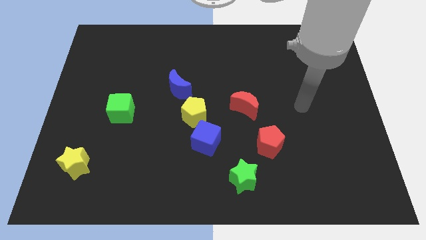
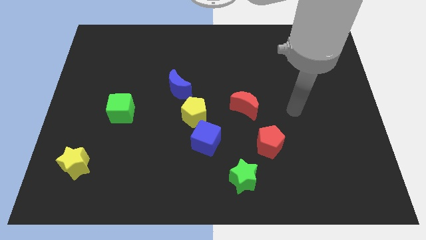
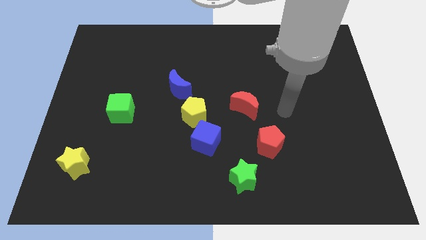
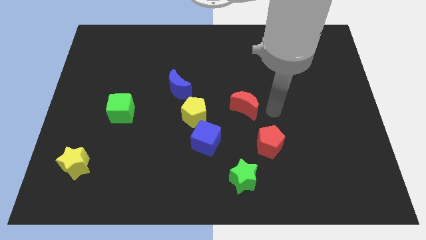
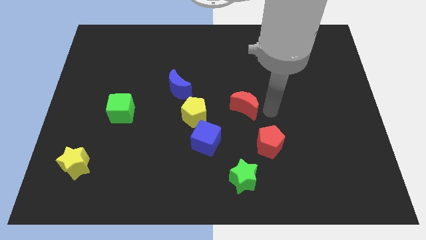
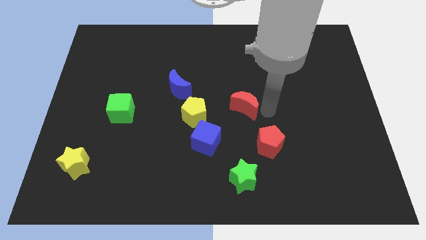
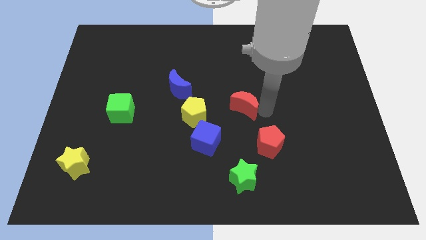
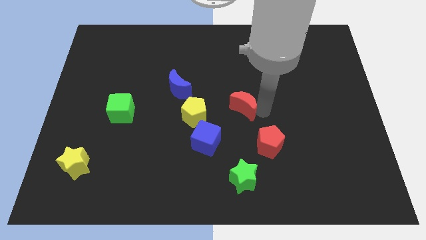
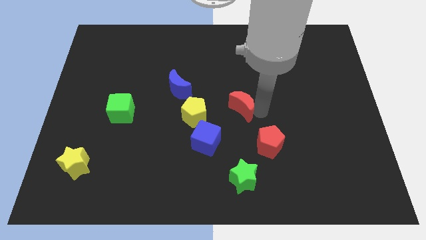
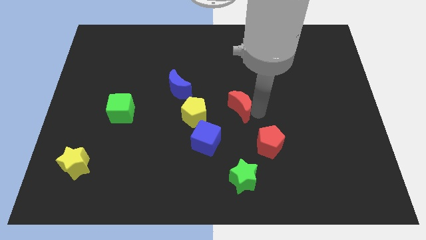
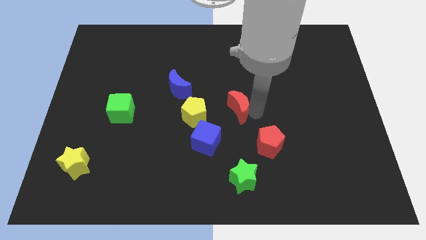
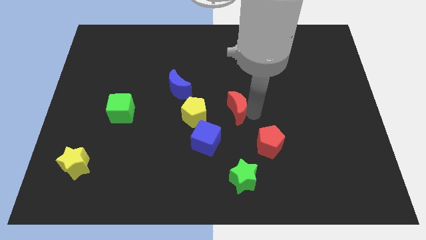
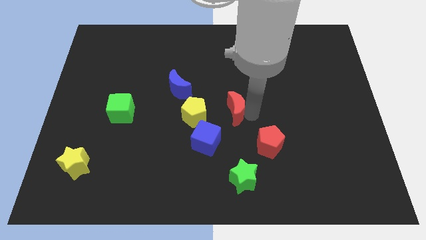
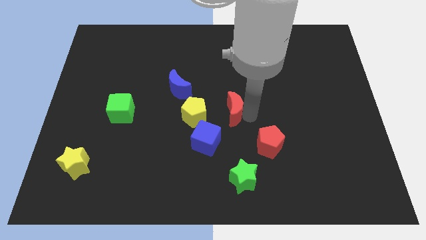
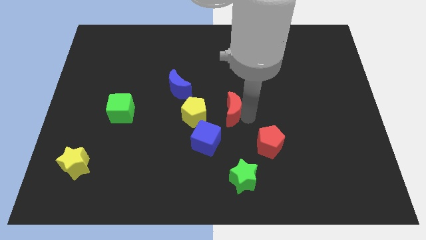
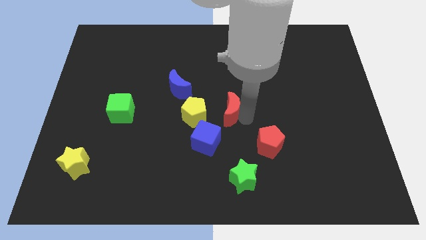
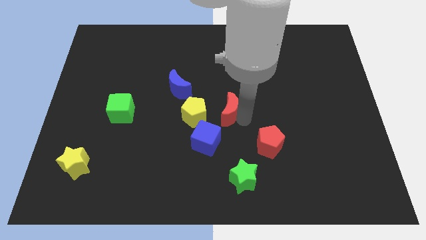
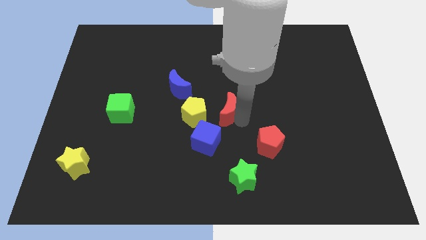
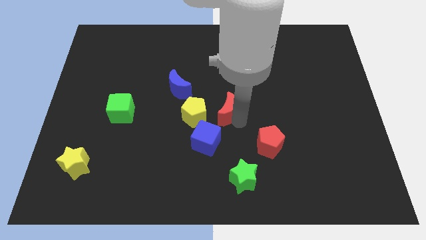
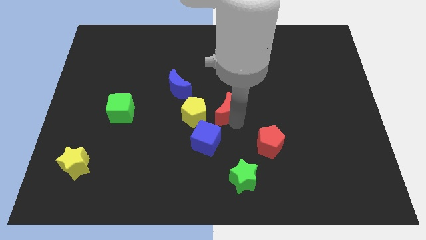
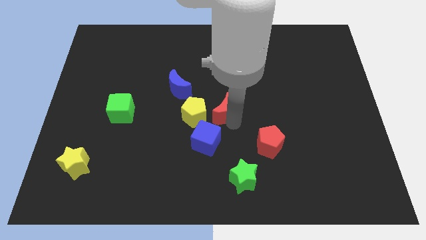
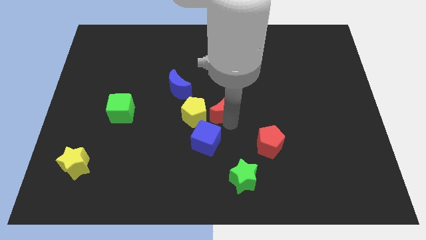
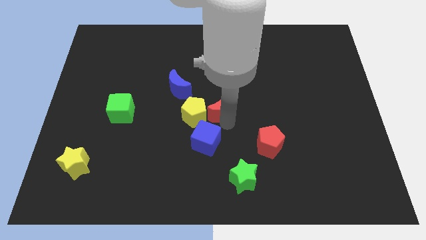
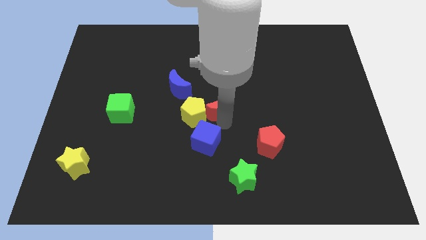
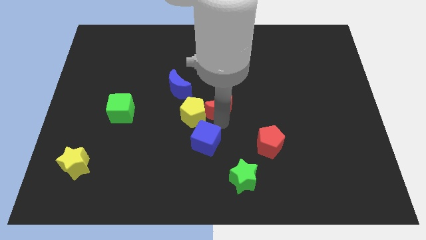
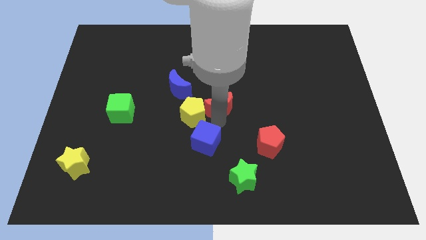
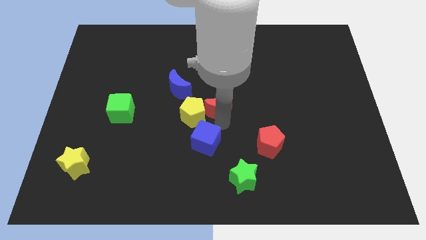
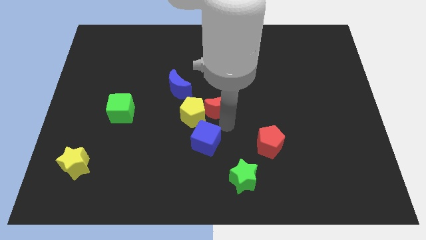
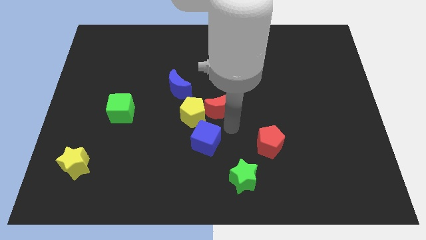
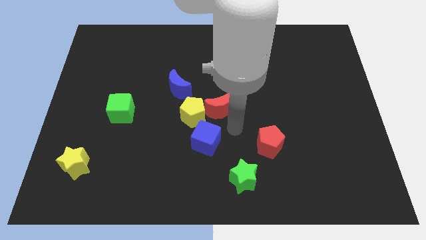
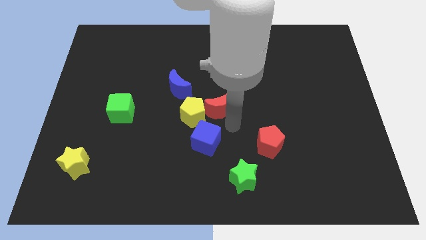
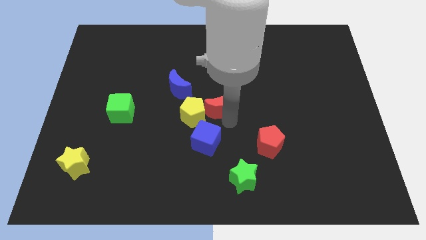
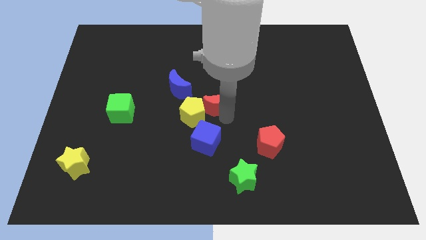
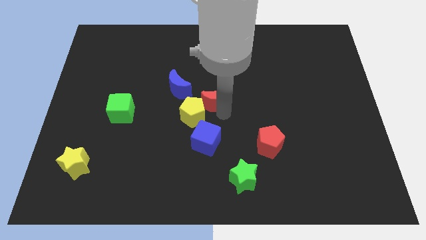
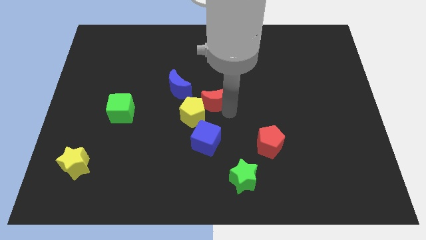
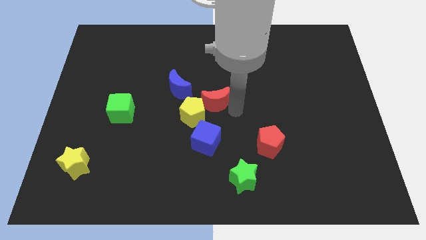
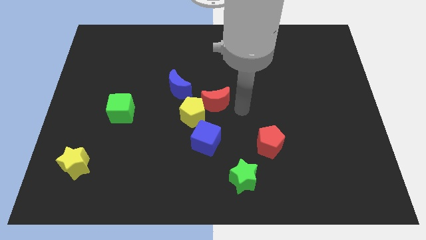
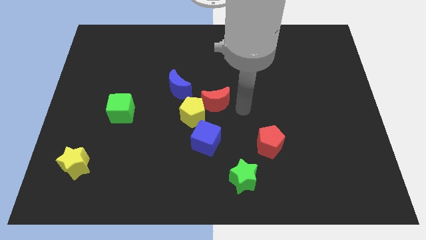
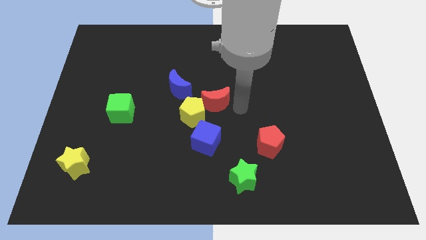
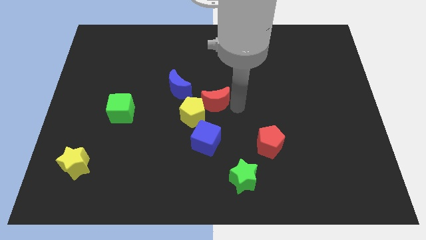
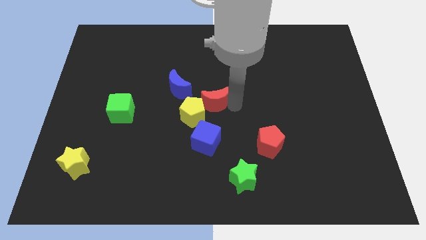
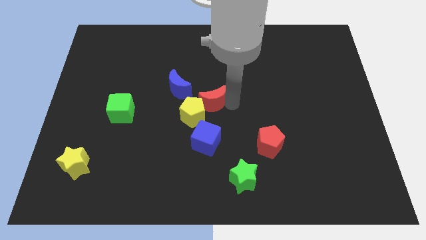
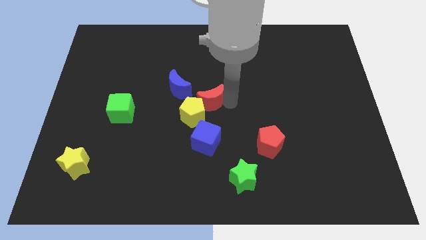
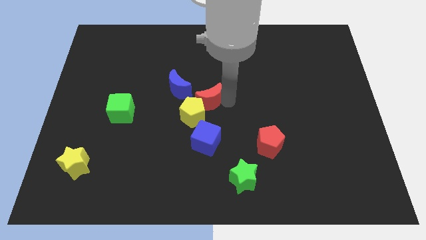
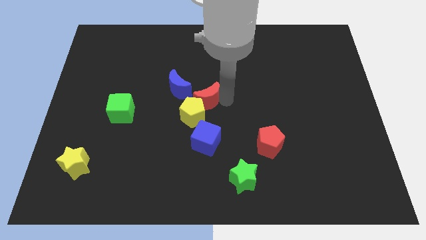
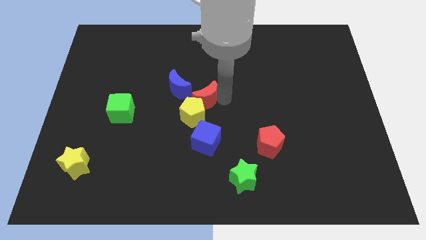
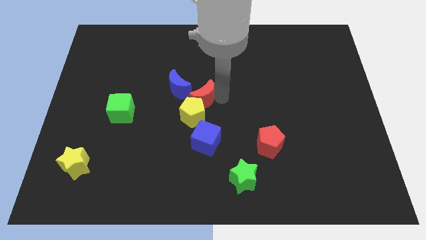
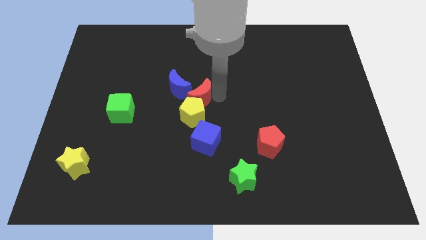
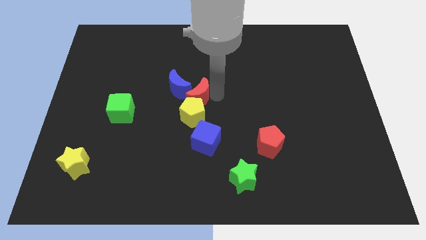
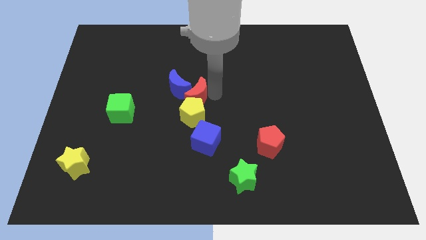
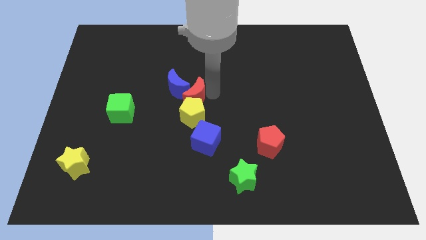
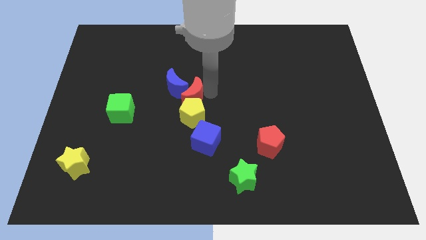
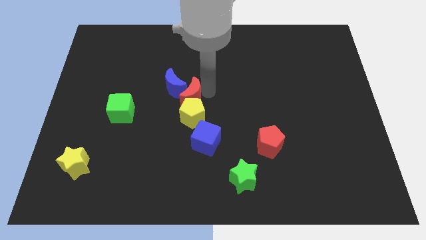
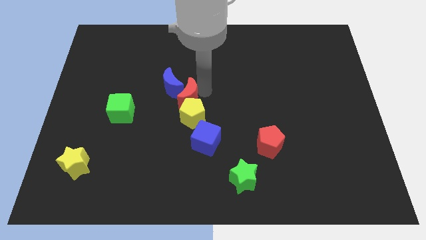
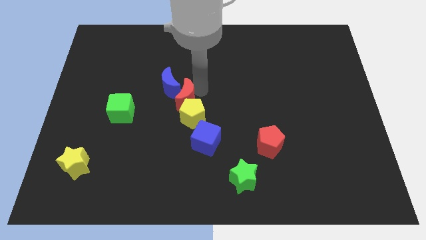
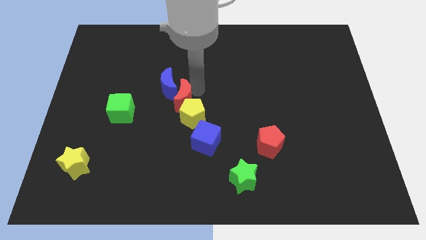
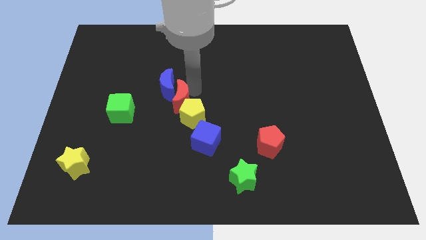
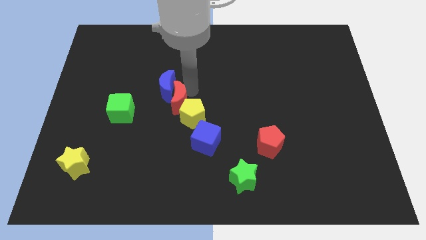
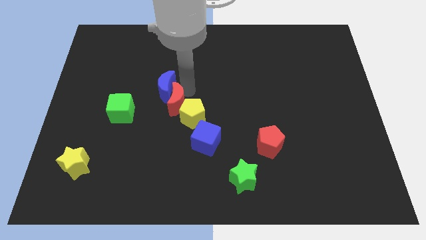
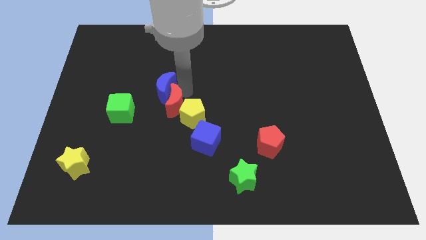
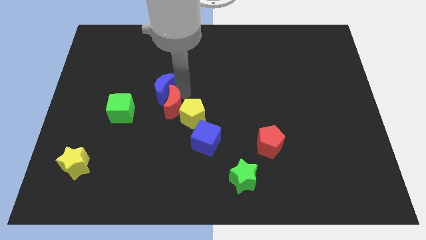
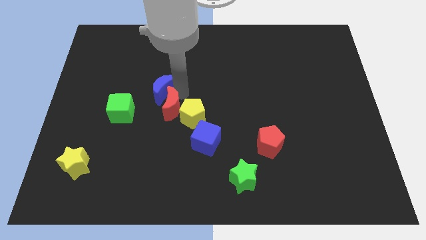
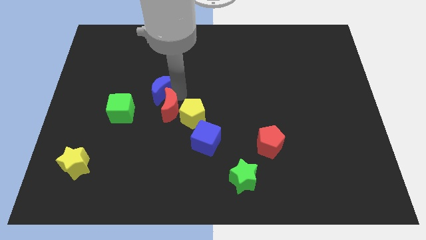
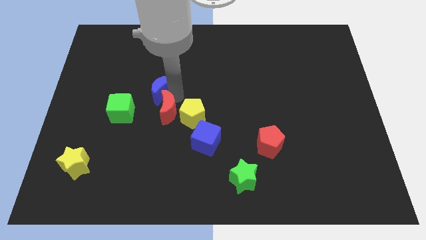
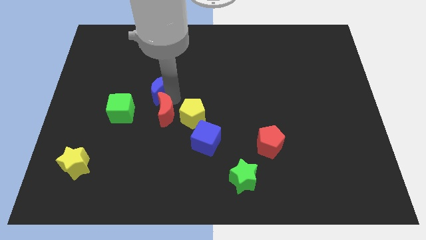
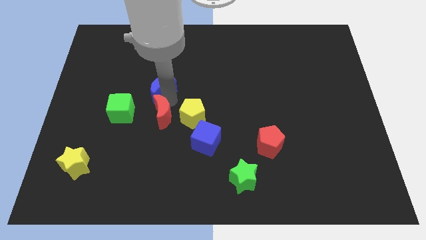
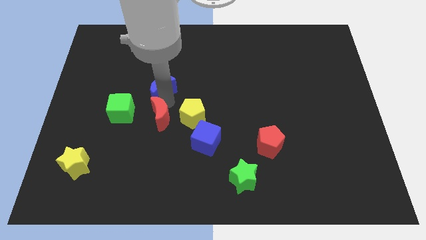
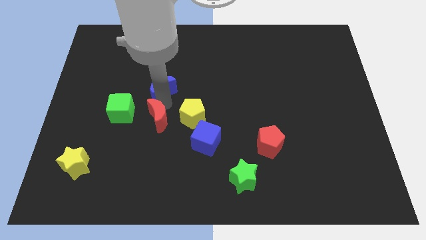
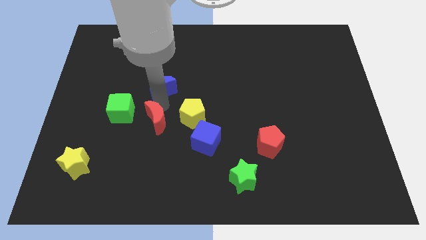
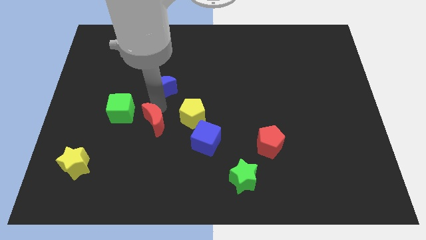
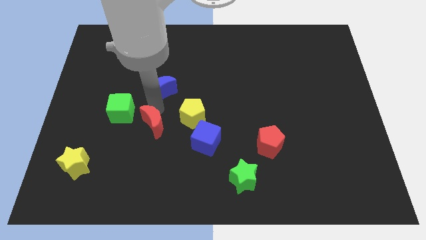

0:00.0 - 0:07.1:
move the red moon to the left side of the blue cube

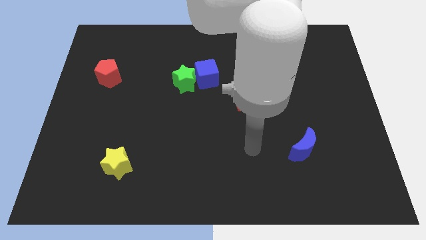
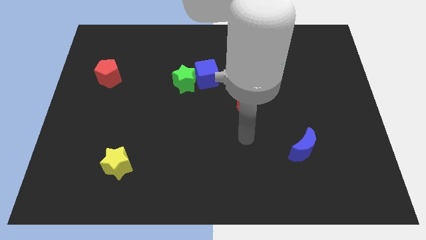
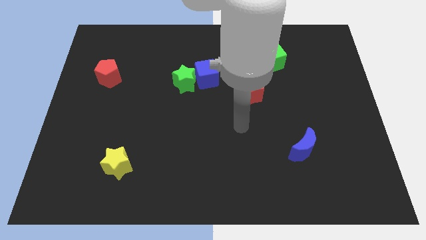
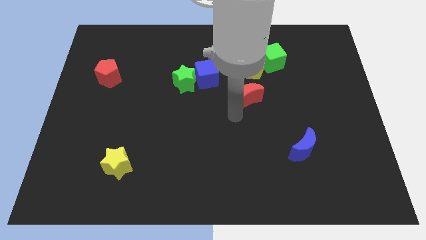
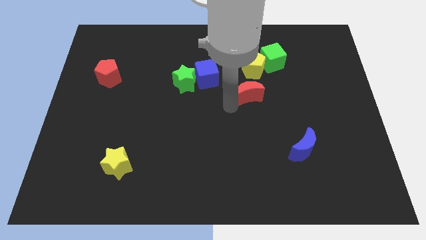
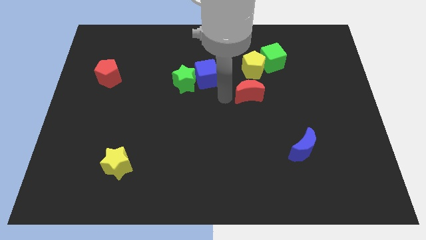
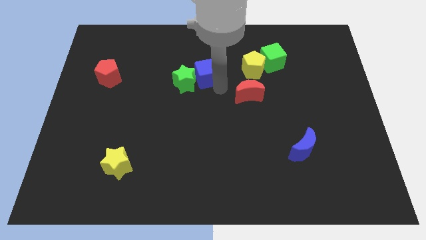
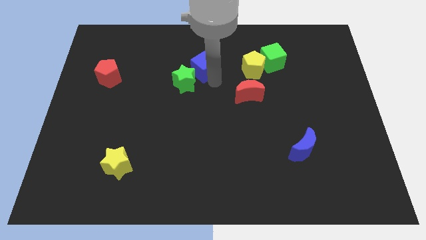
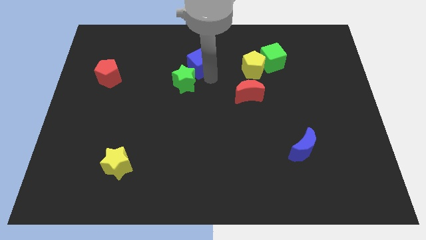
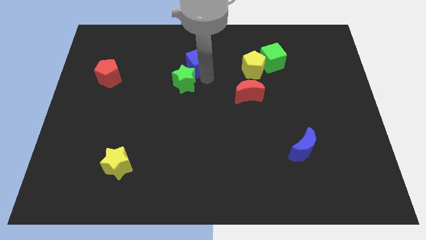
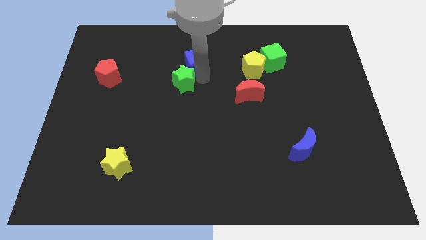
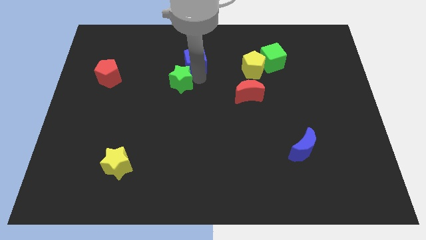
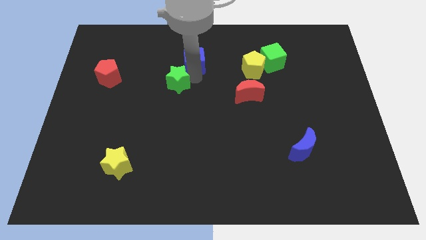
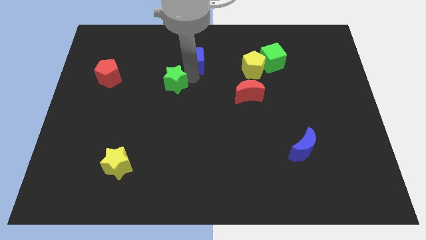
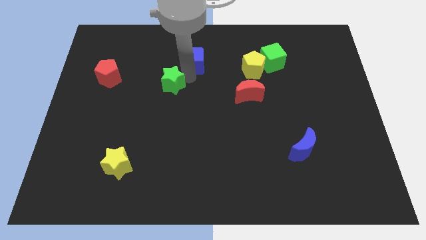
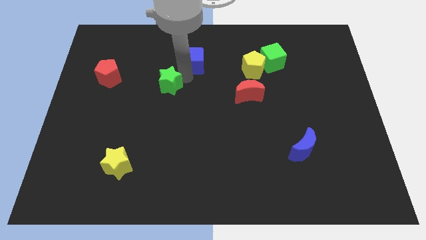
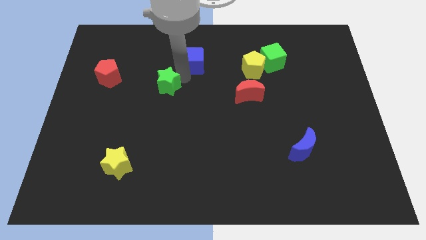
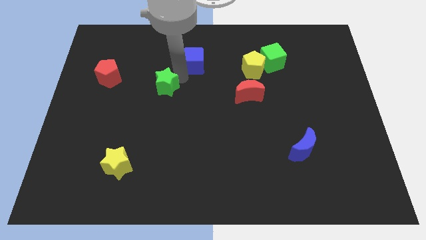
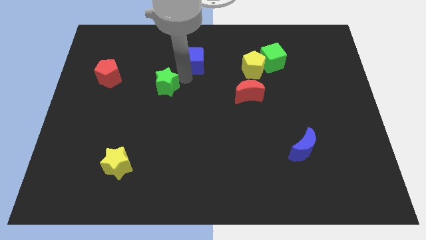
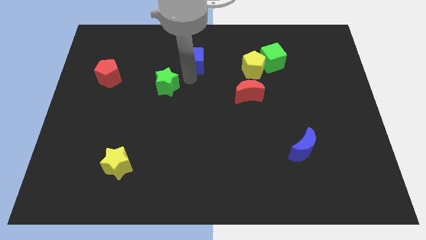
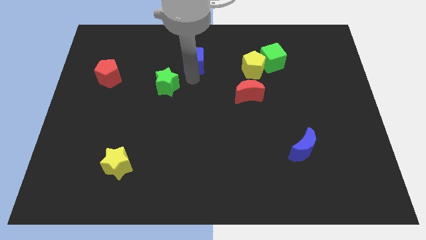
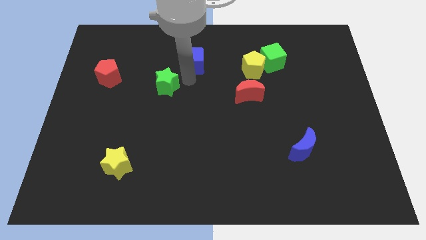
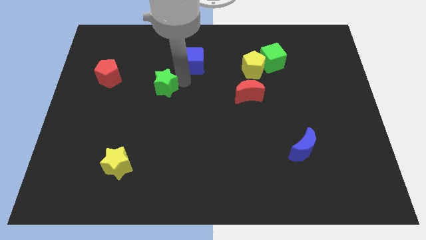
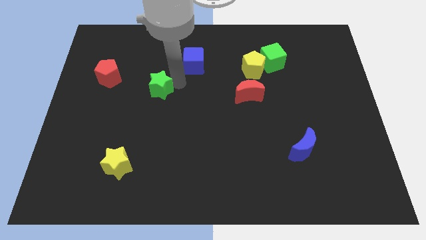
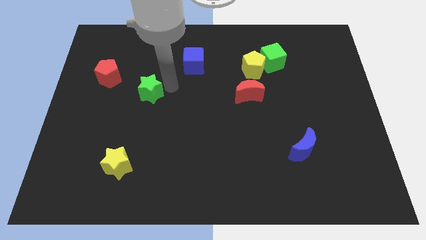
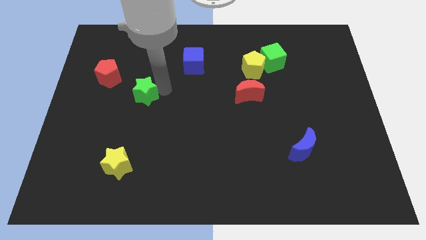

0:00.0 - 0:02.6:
push the green star to the bottom right of the red pentagon
